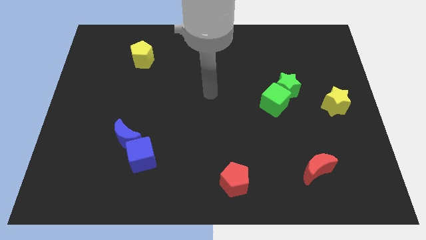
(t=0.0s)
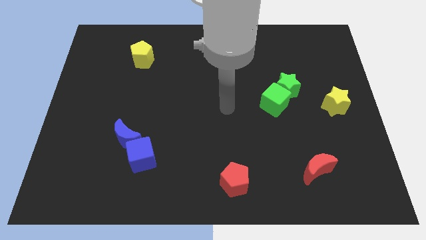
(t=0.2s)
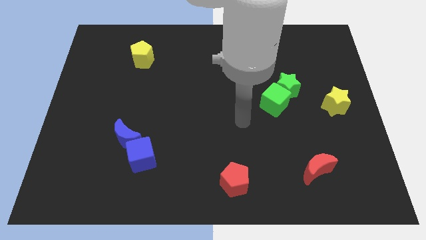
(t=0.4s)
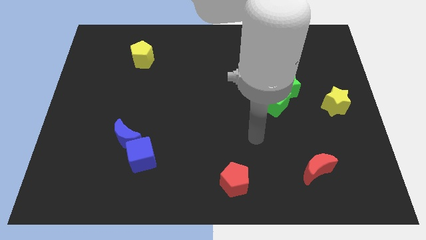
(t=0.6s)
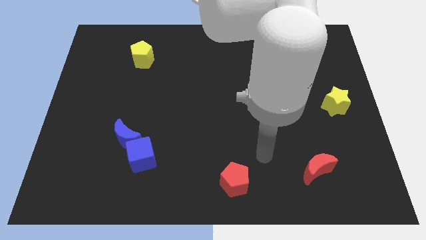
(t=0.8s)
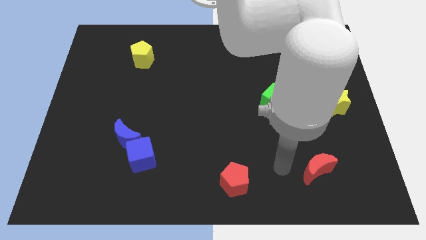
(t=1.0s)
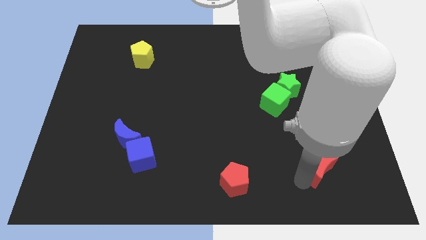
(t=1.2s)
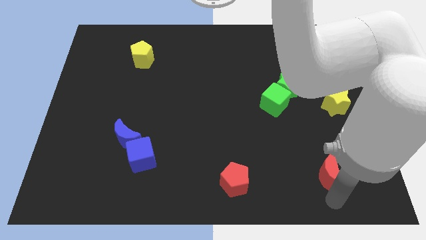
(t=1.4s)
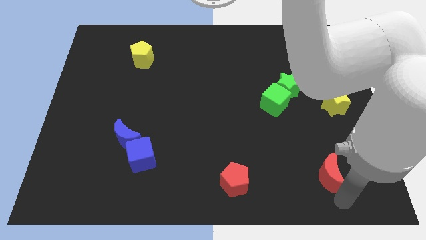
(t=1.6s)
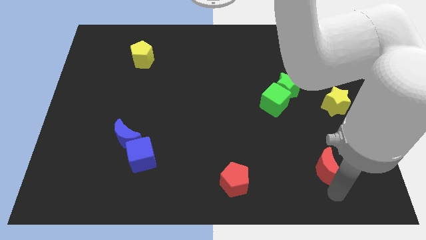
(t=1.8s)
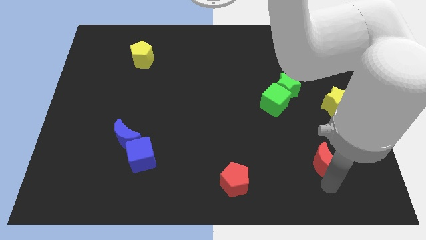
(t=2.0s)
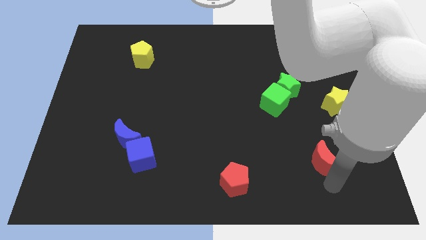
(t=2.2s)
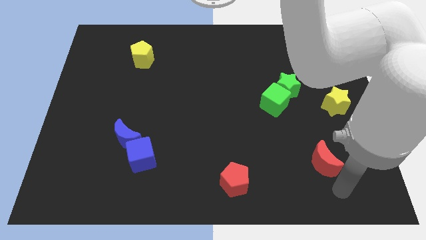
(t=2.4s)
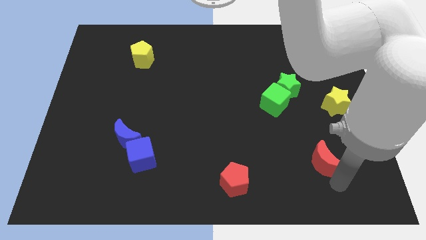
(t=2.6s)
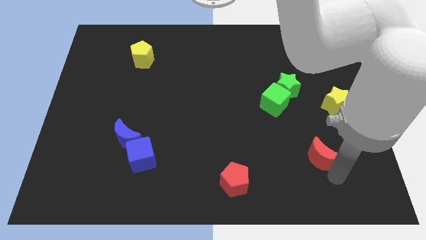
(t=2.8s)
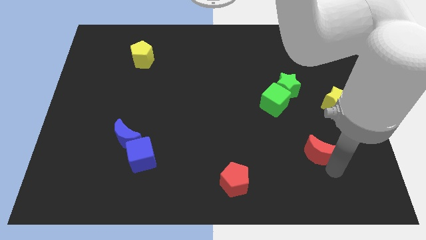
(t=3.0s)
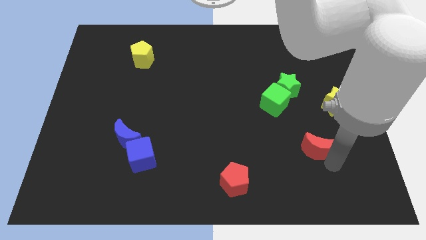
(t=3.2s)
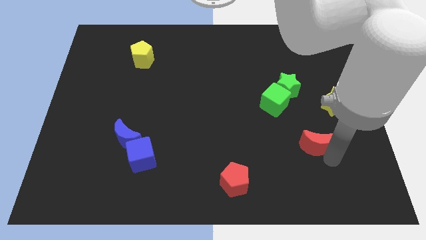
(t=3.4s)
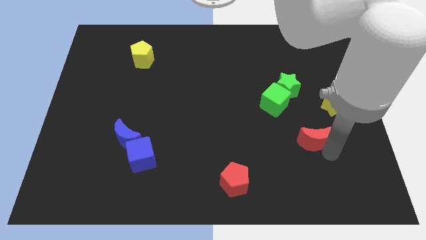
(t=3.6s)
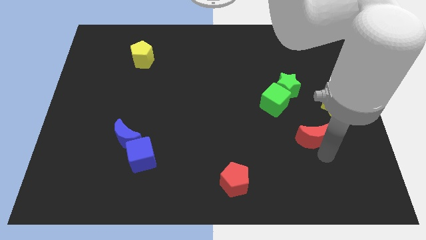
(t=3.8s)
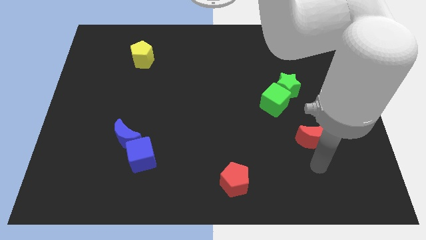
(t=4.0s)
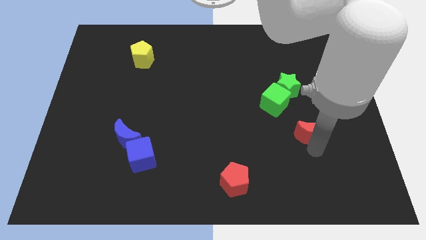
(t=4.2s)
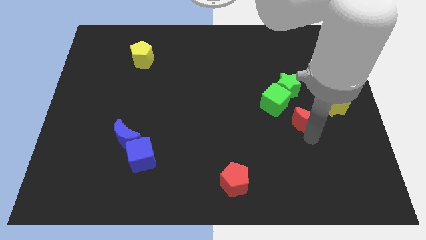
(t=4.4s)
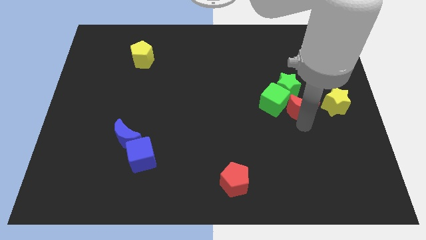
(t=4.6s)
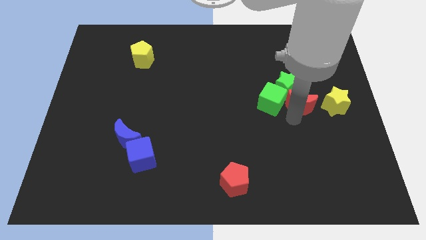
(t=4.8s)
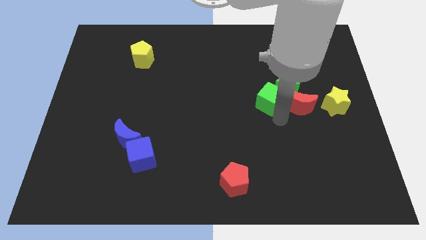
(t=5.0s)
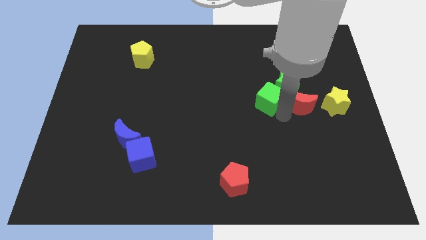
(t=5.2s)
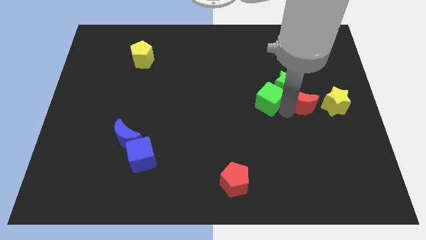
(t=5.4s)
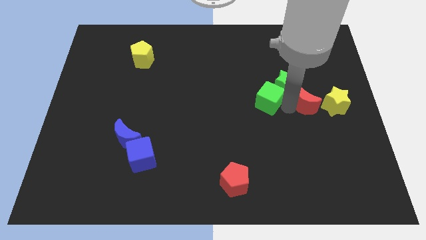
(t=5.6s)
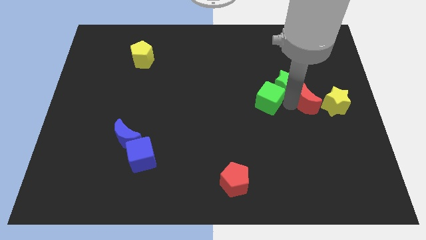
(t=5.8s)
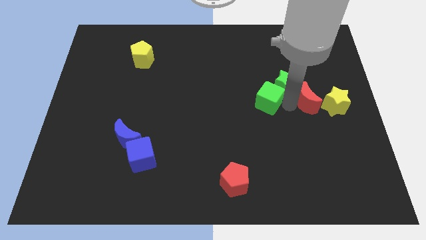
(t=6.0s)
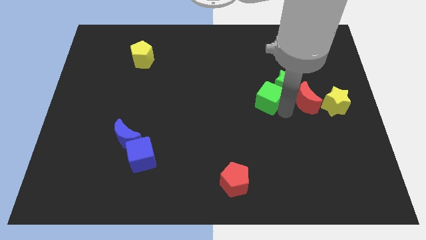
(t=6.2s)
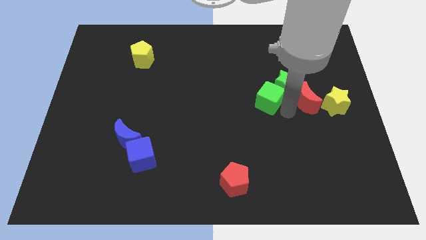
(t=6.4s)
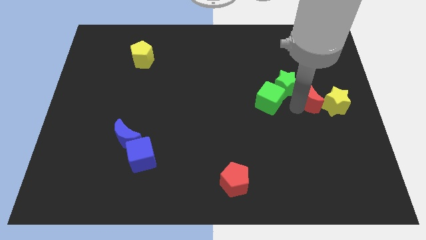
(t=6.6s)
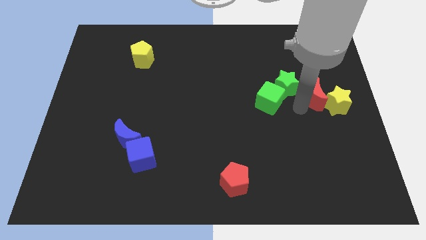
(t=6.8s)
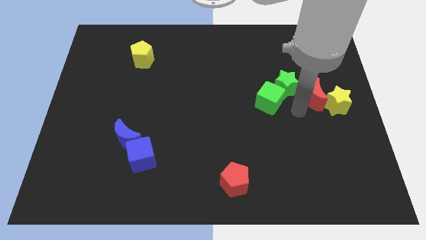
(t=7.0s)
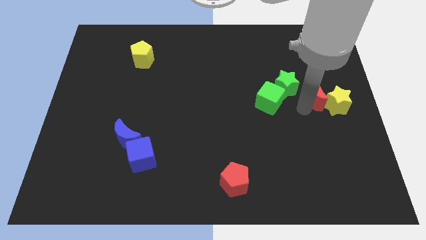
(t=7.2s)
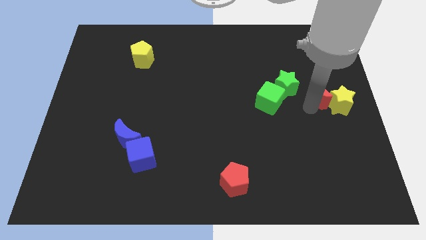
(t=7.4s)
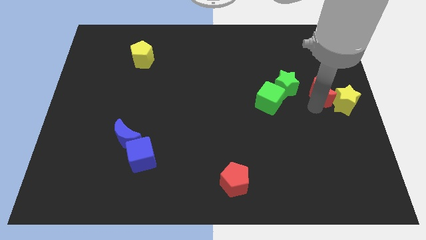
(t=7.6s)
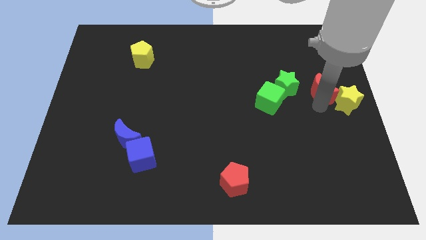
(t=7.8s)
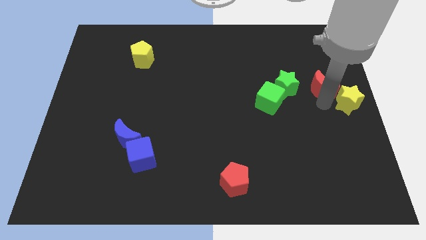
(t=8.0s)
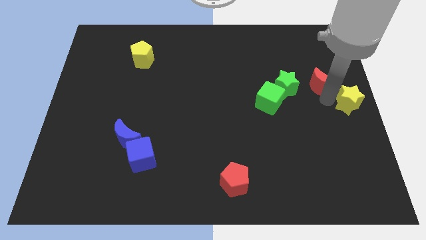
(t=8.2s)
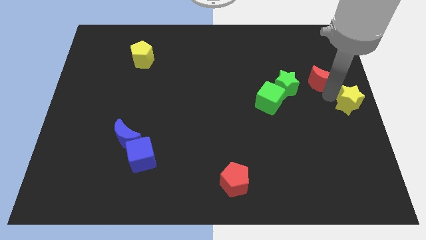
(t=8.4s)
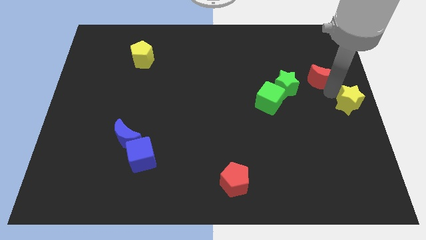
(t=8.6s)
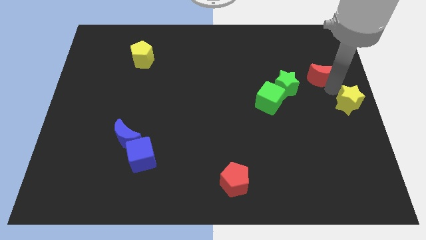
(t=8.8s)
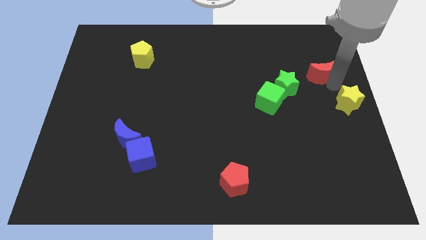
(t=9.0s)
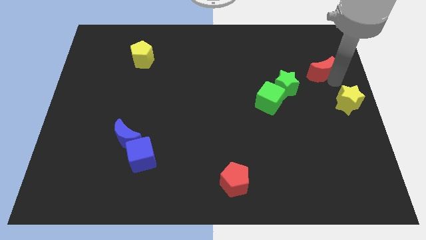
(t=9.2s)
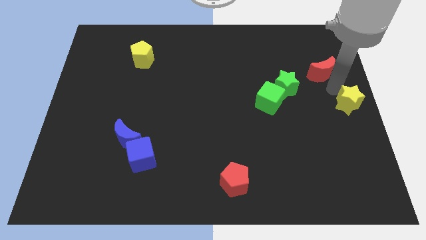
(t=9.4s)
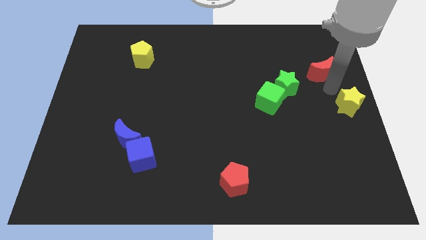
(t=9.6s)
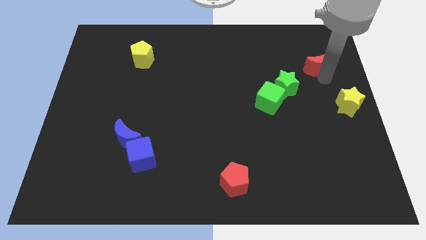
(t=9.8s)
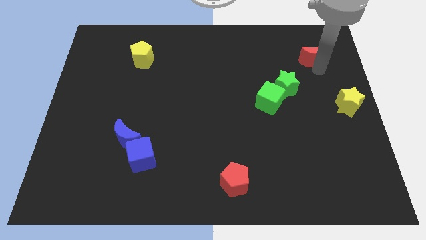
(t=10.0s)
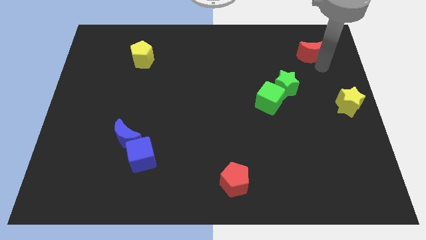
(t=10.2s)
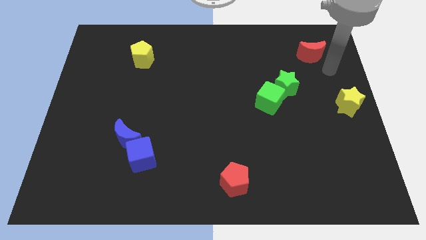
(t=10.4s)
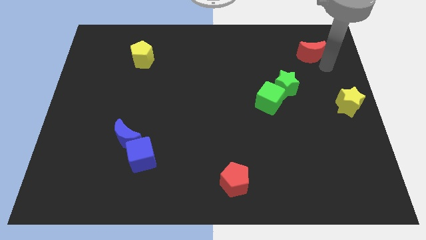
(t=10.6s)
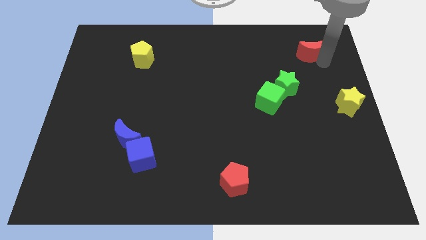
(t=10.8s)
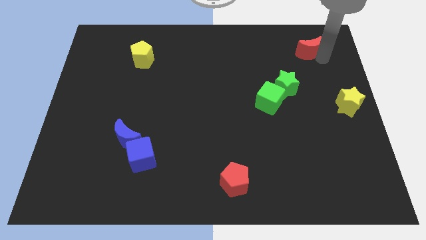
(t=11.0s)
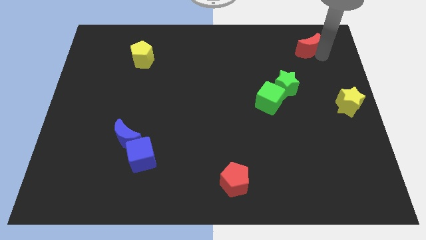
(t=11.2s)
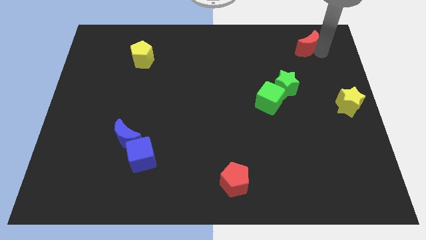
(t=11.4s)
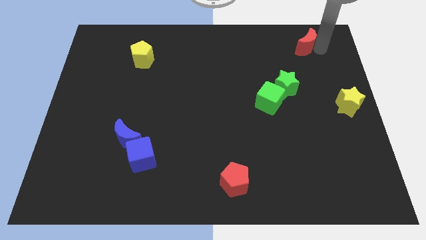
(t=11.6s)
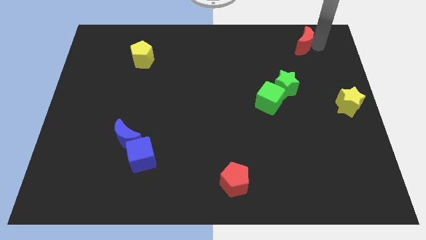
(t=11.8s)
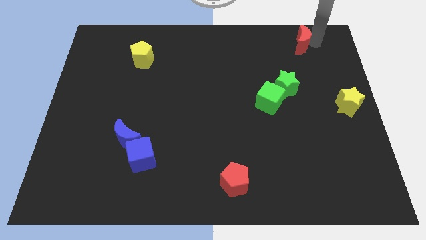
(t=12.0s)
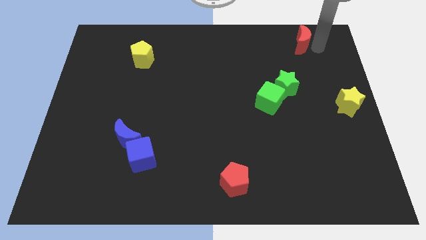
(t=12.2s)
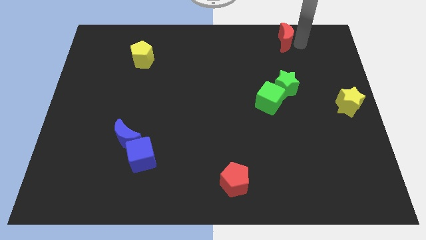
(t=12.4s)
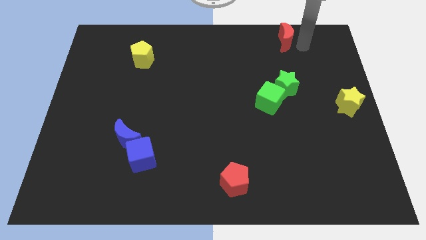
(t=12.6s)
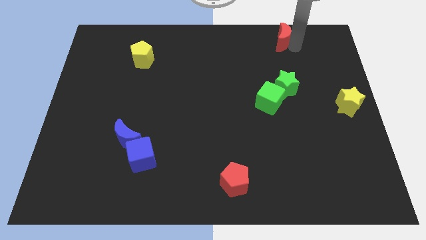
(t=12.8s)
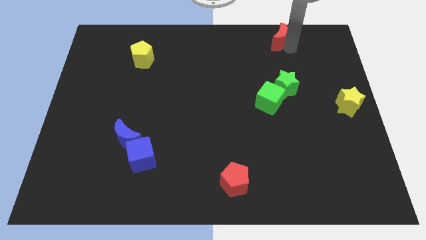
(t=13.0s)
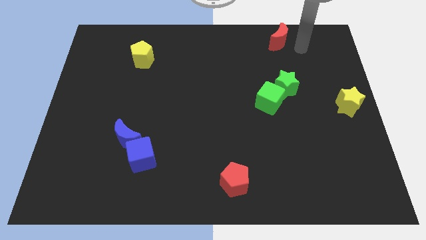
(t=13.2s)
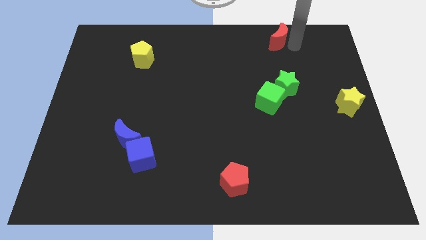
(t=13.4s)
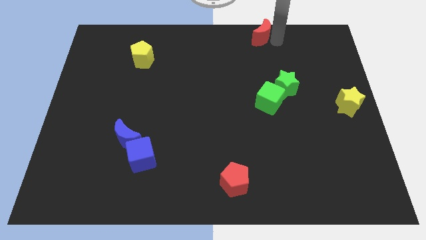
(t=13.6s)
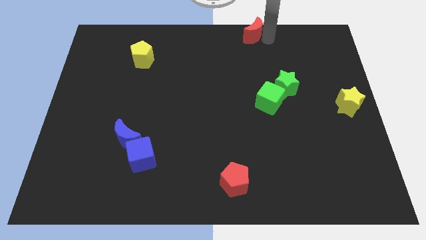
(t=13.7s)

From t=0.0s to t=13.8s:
move the red moon to the top

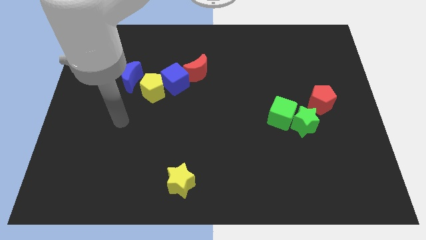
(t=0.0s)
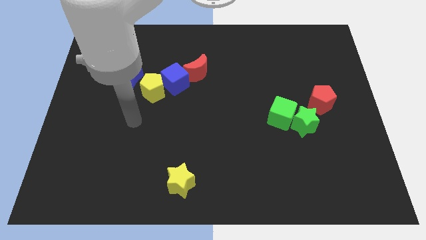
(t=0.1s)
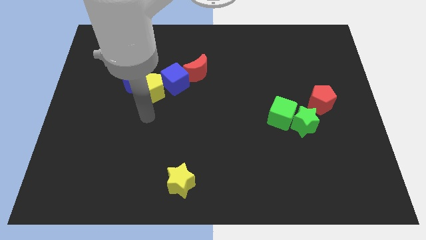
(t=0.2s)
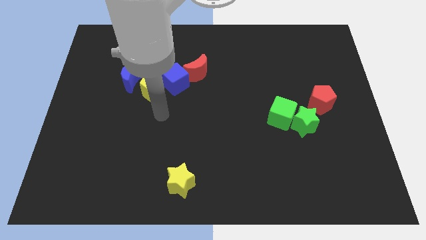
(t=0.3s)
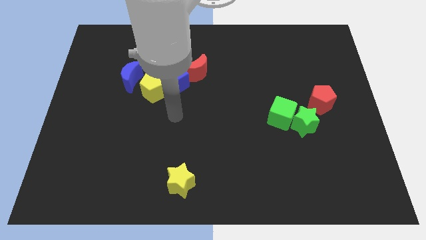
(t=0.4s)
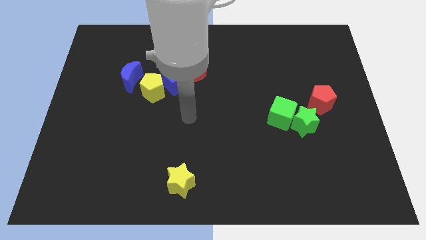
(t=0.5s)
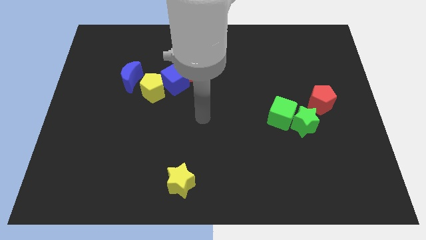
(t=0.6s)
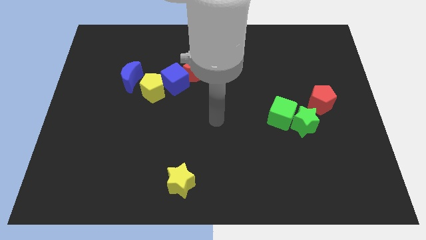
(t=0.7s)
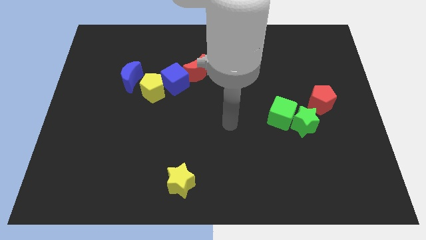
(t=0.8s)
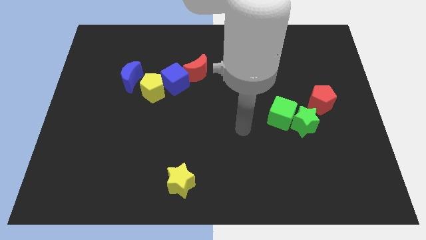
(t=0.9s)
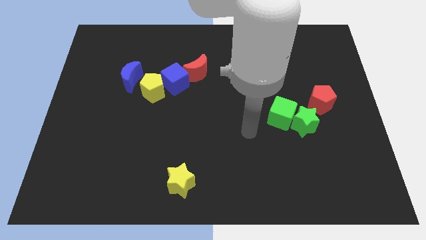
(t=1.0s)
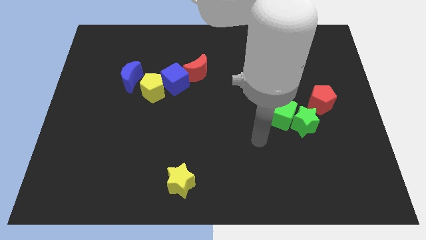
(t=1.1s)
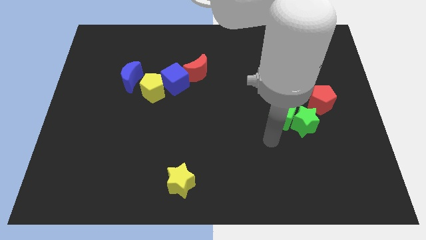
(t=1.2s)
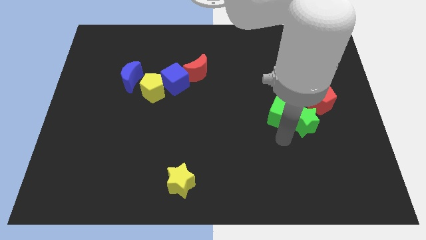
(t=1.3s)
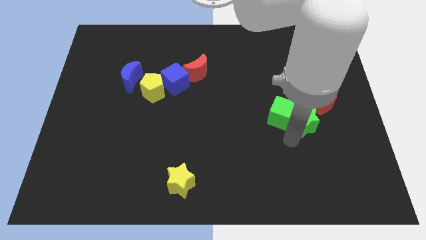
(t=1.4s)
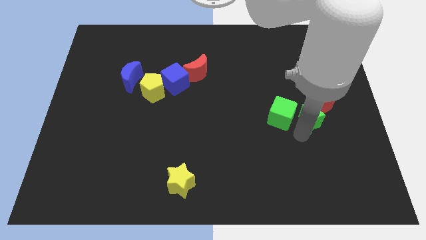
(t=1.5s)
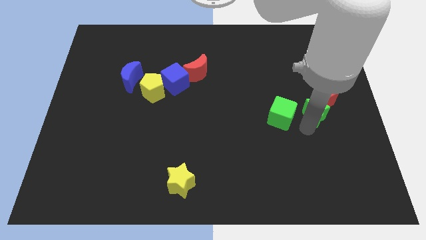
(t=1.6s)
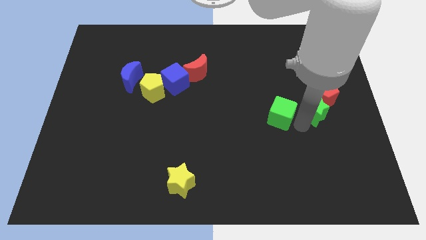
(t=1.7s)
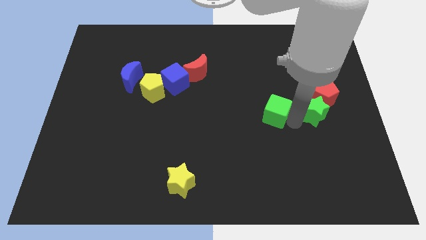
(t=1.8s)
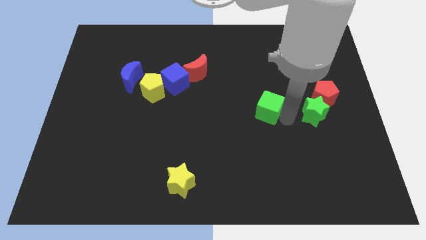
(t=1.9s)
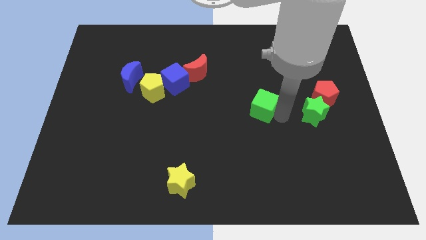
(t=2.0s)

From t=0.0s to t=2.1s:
move the green cube to the middle
